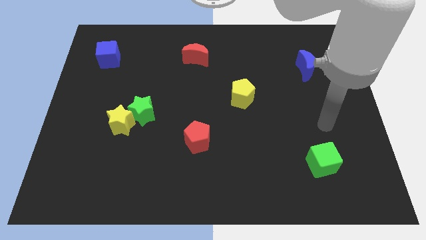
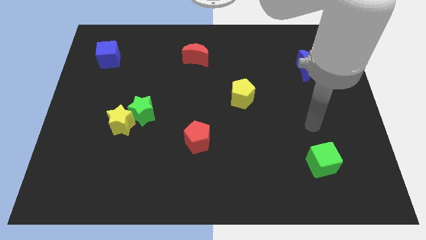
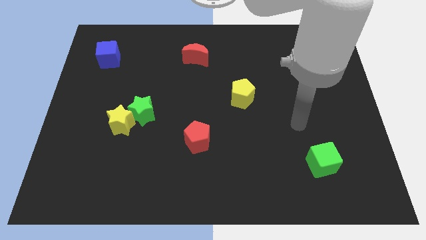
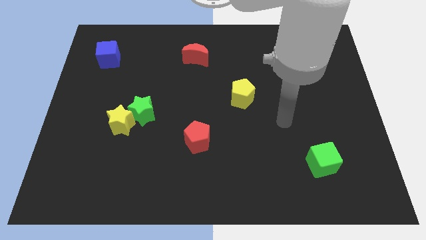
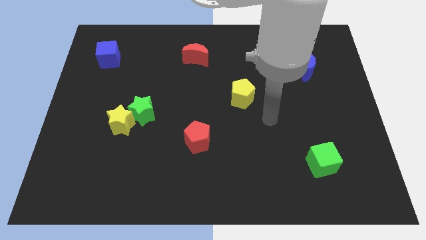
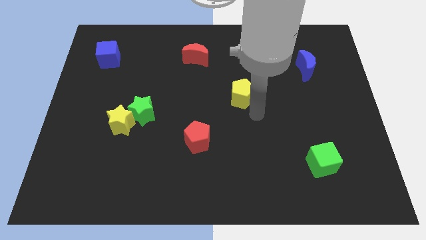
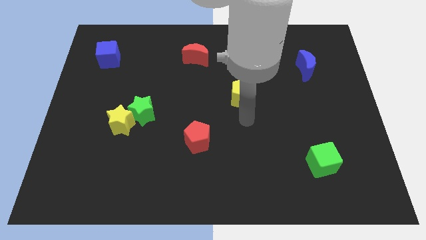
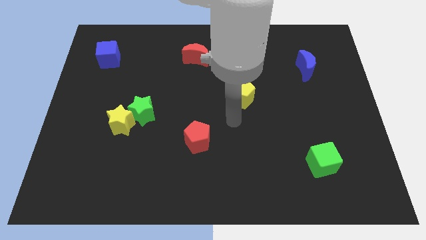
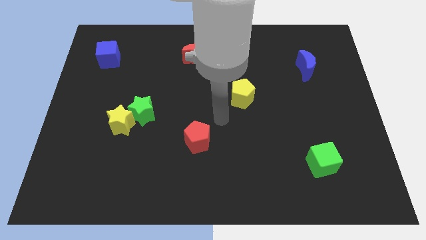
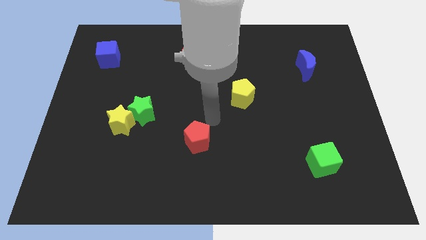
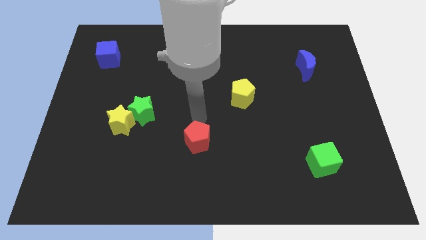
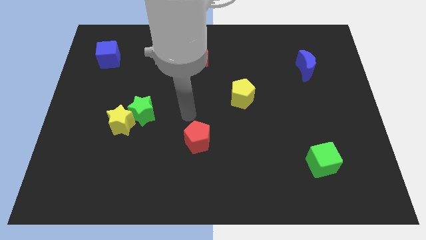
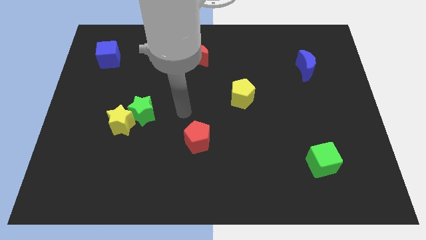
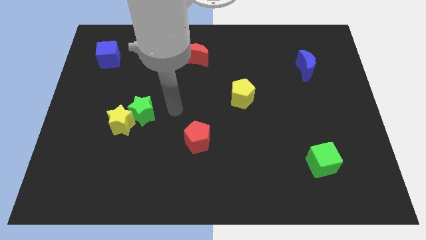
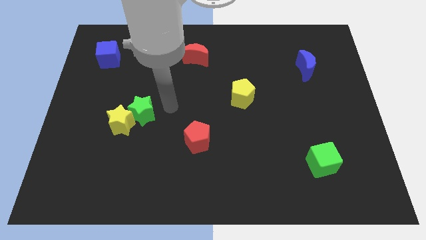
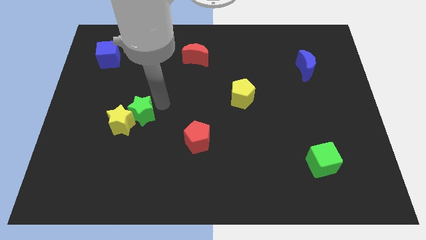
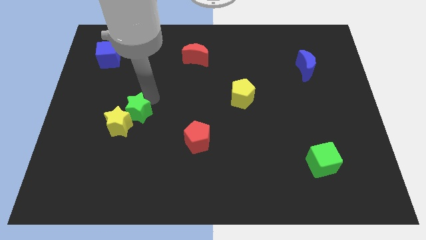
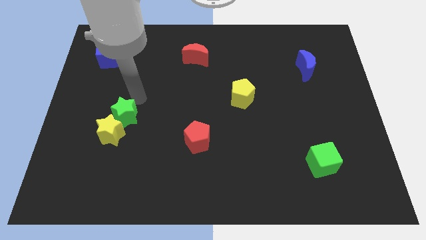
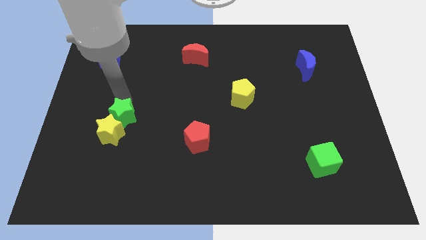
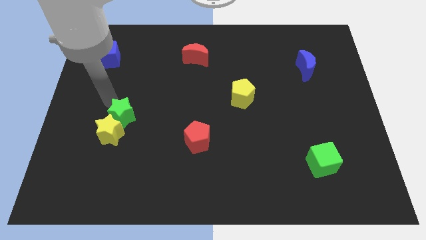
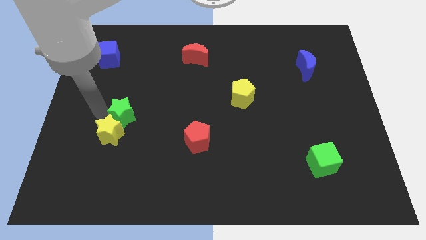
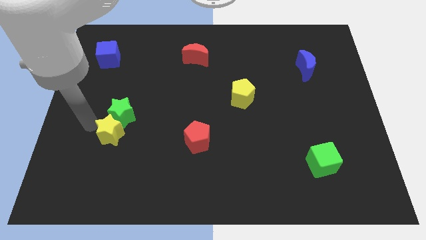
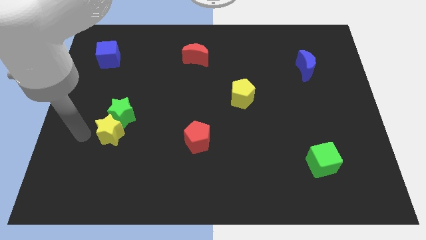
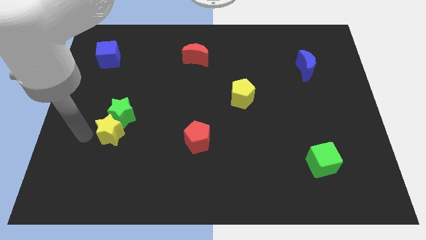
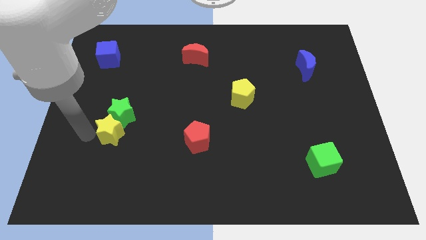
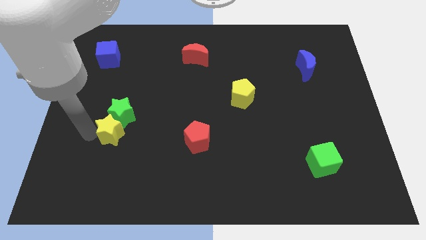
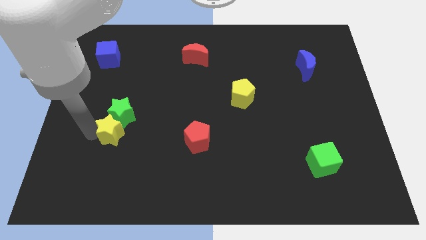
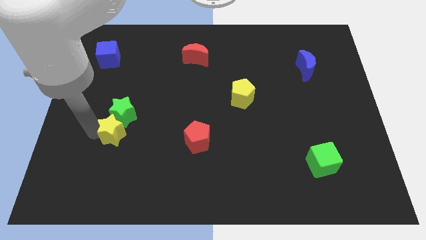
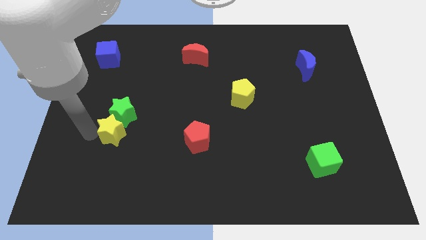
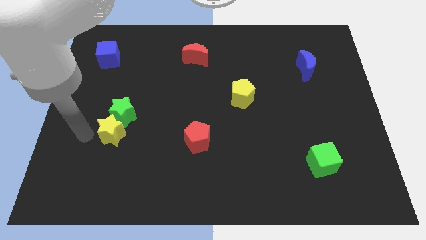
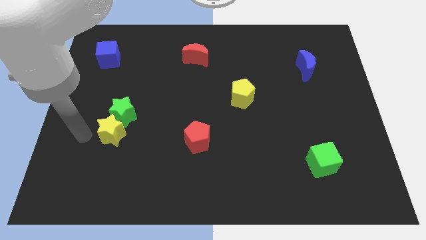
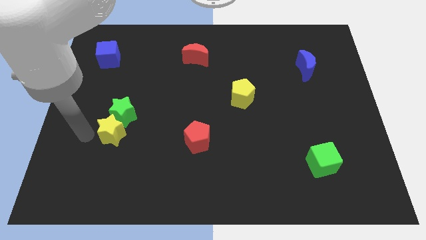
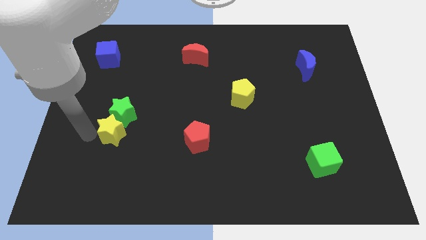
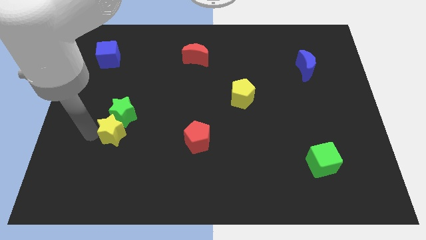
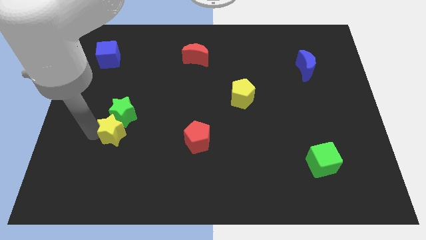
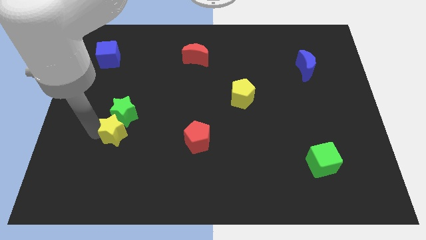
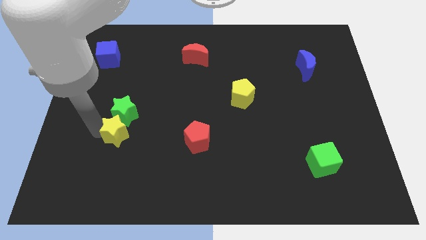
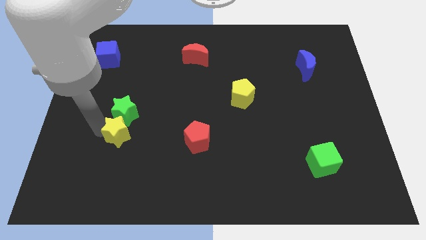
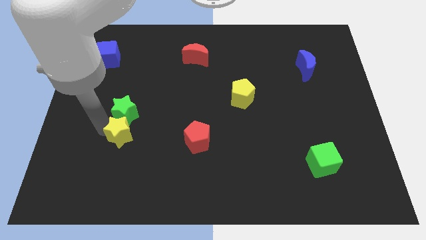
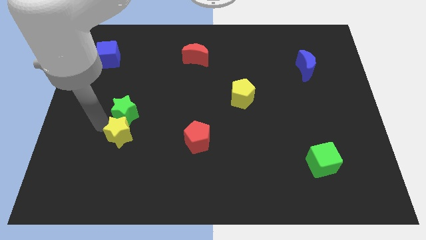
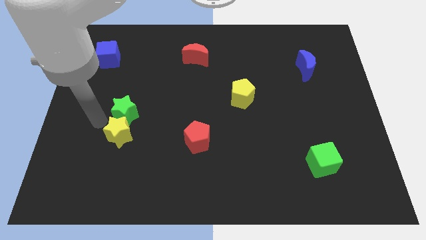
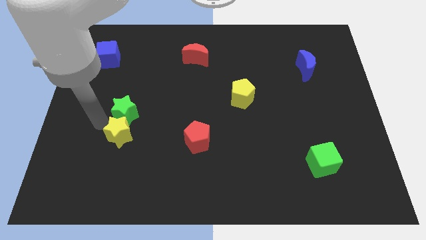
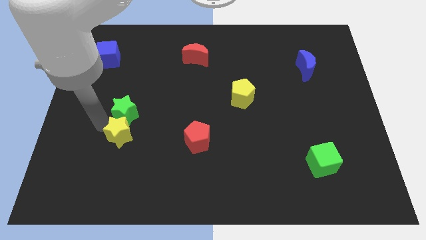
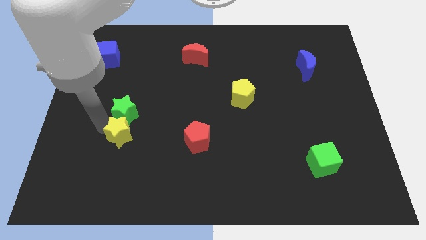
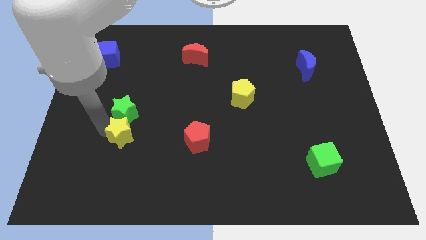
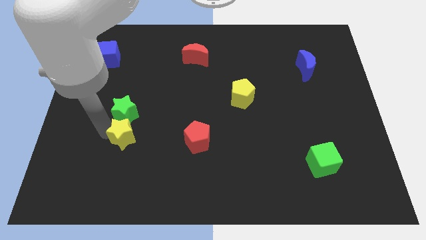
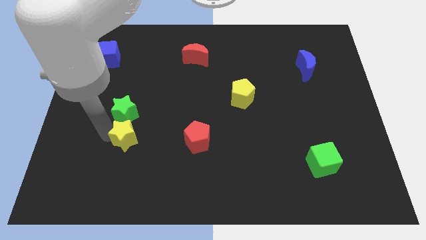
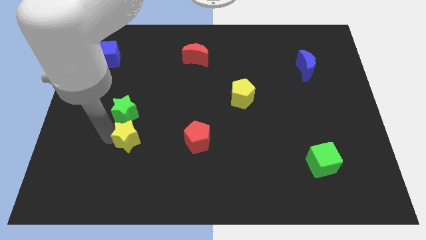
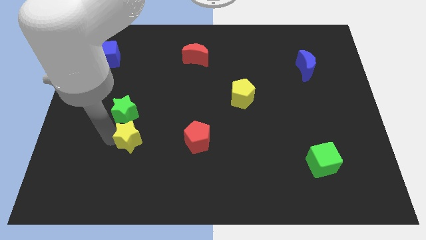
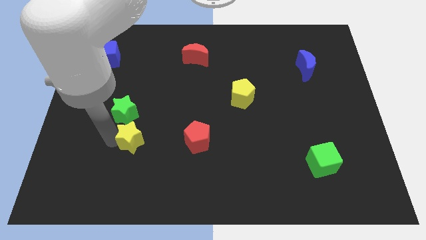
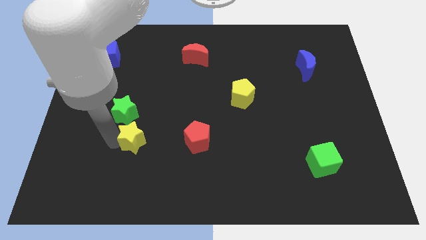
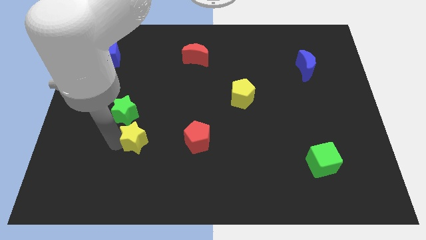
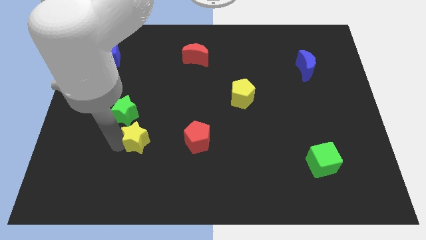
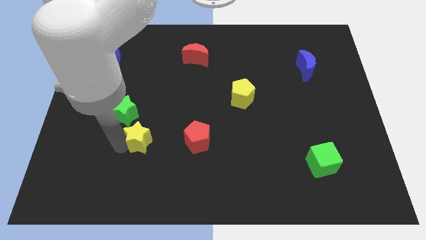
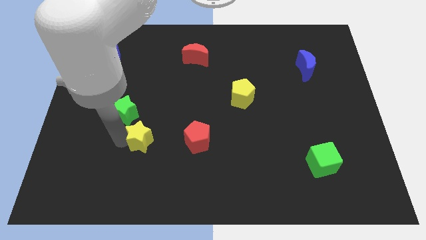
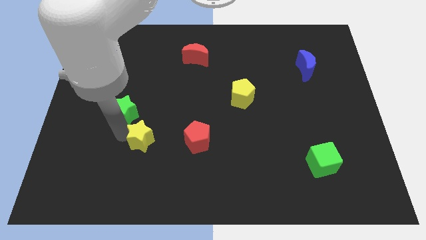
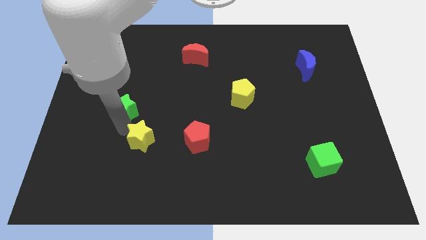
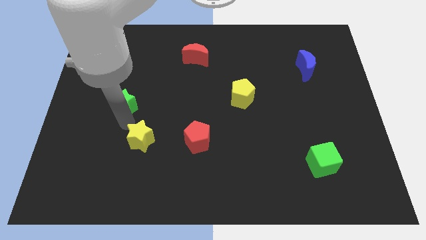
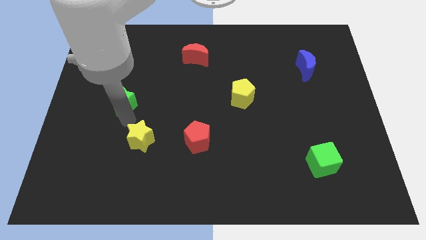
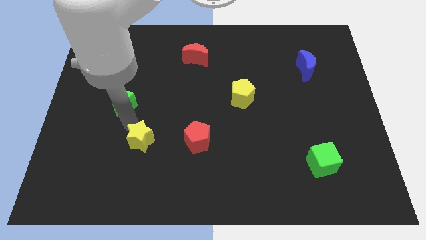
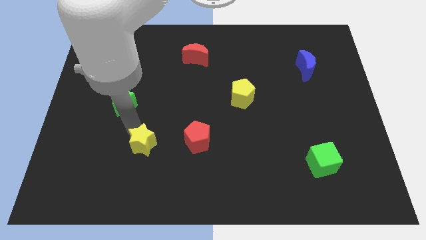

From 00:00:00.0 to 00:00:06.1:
move the yellow star a little bit down and to the right diagonally

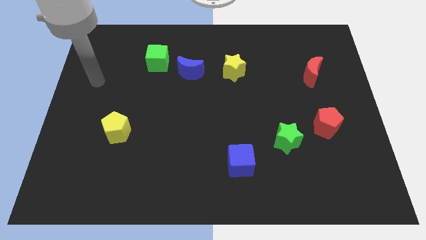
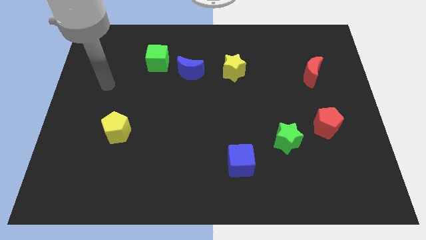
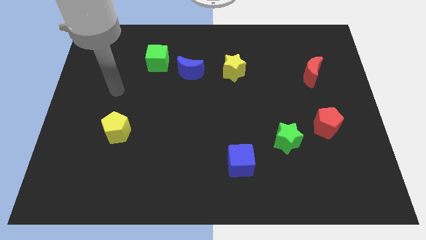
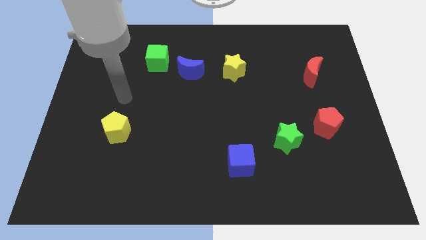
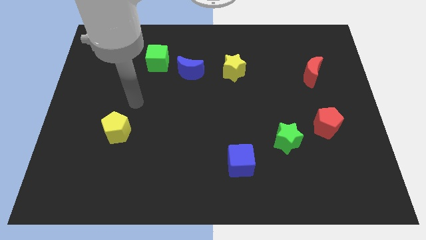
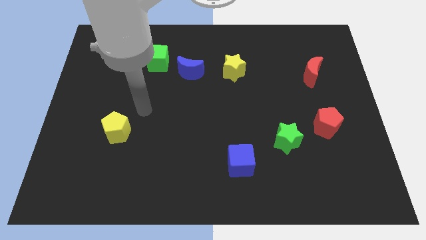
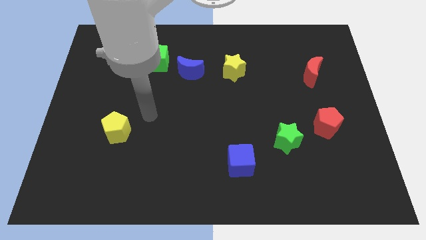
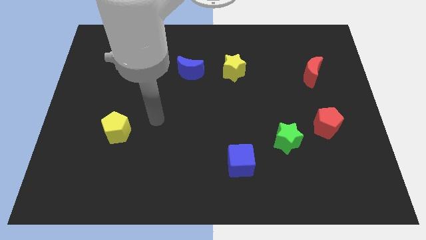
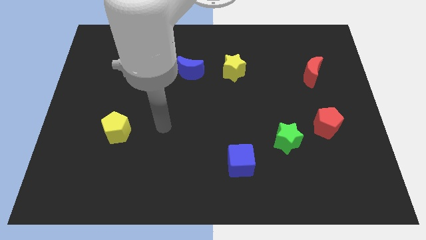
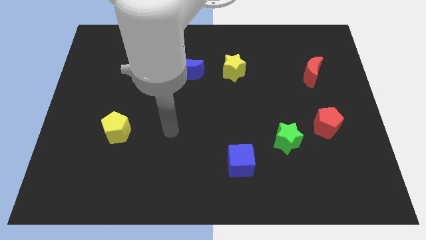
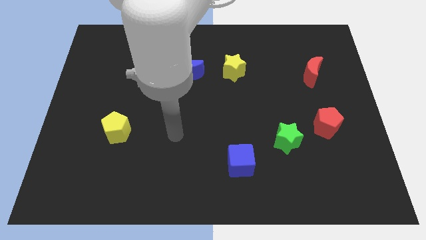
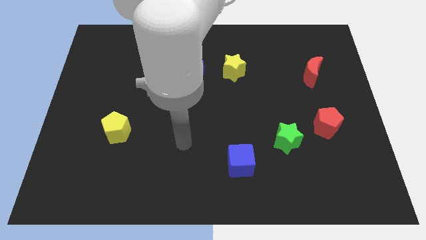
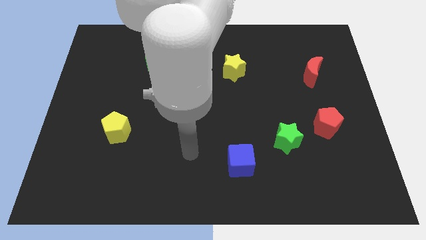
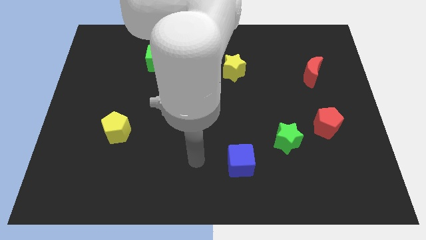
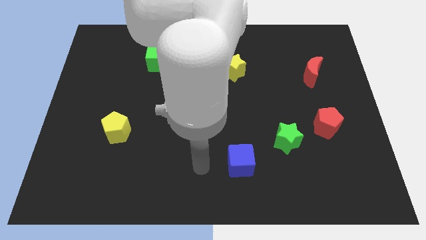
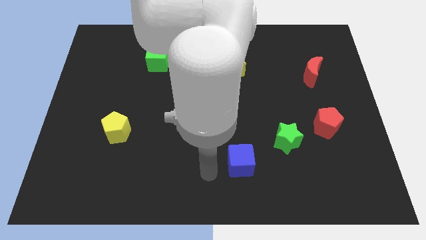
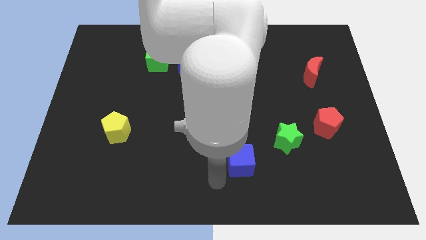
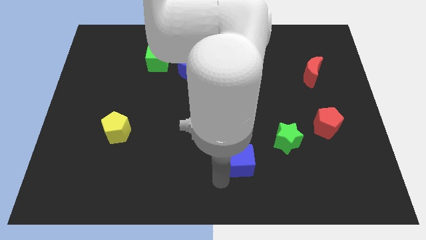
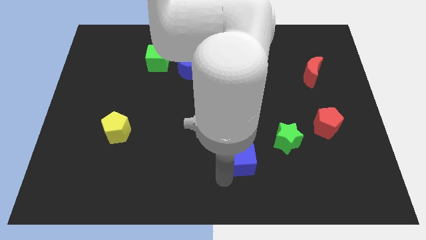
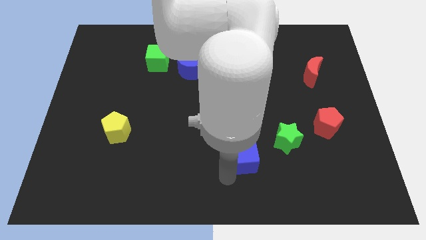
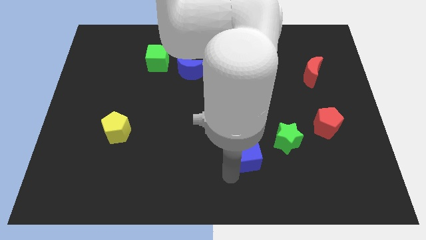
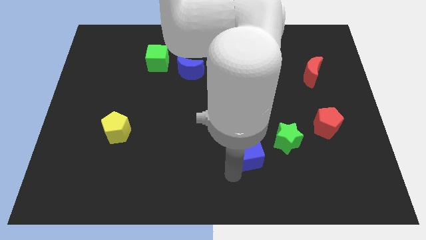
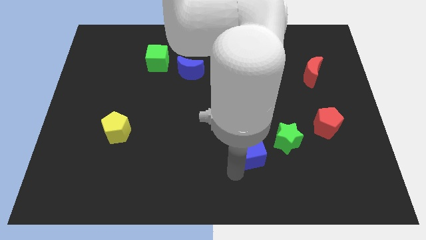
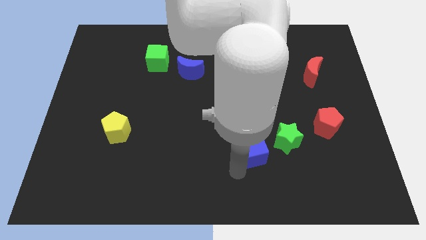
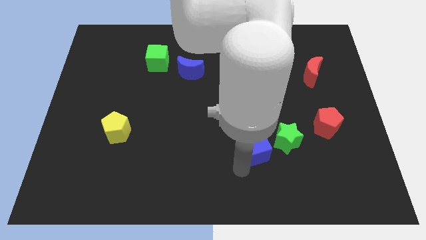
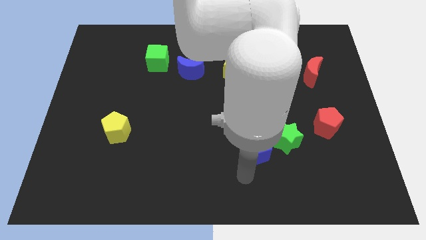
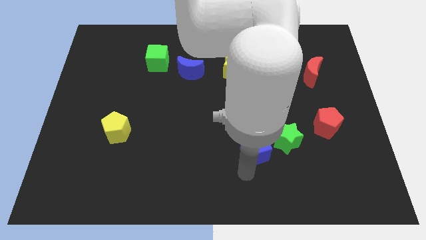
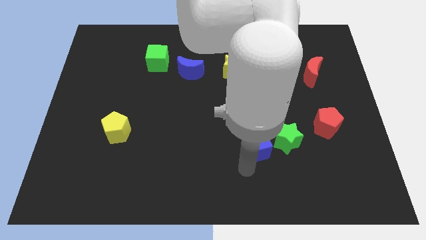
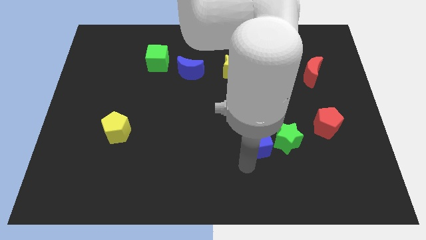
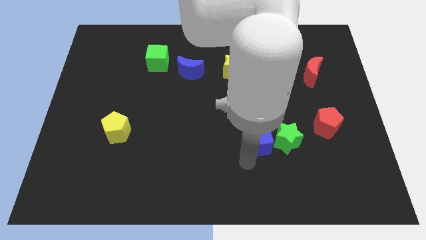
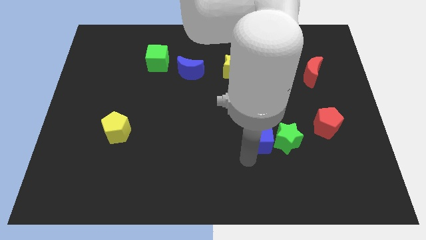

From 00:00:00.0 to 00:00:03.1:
slightly slide the blue cube upwards and then to the right
